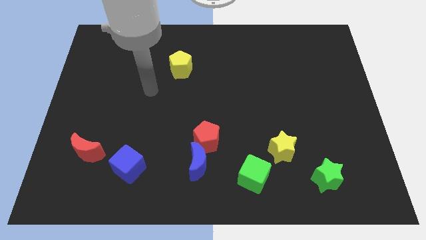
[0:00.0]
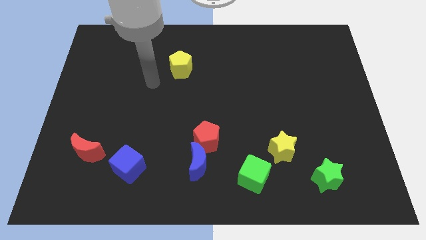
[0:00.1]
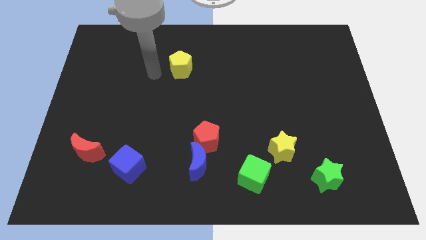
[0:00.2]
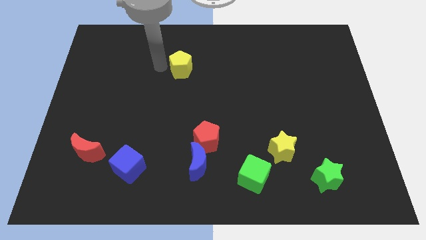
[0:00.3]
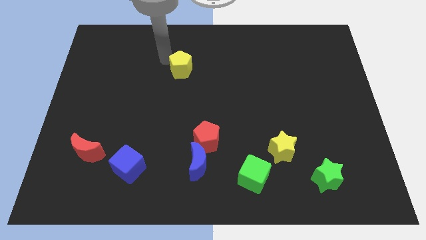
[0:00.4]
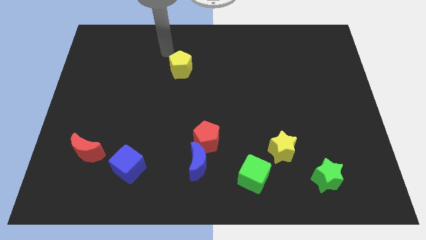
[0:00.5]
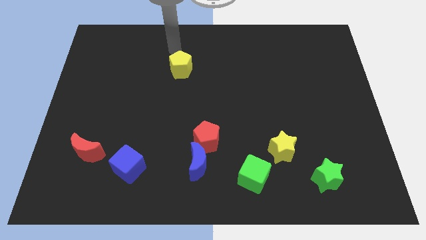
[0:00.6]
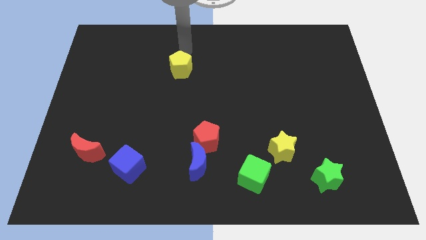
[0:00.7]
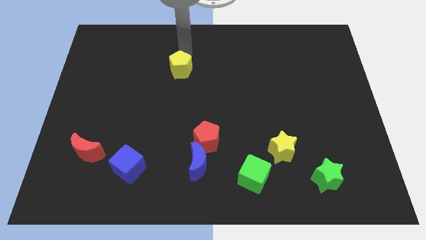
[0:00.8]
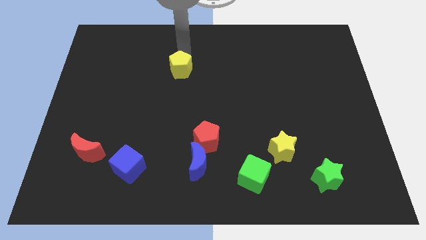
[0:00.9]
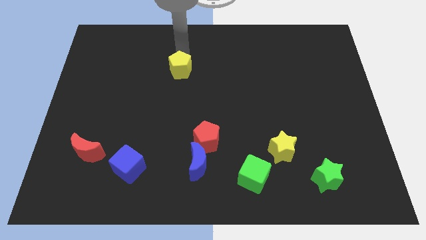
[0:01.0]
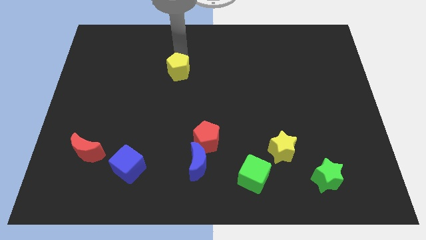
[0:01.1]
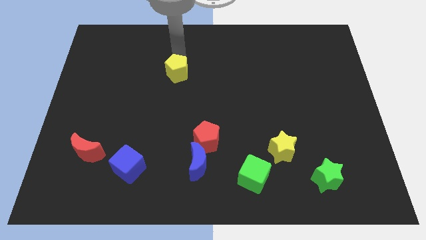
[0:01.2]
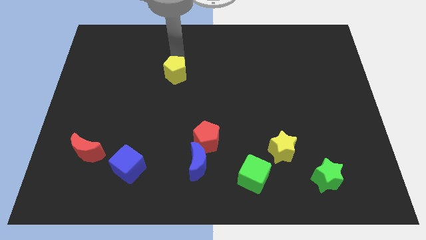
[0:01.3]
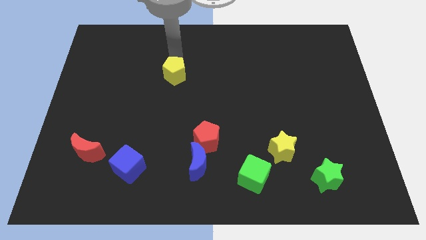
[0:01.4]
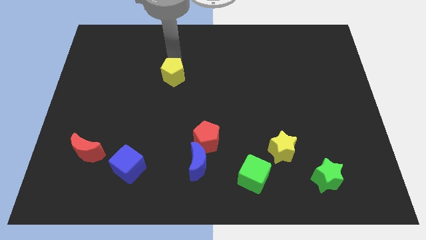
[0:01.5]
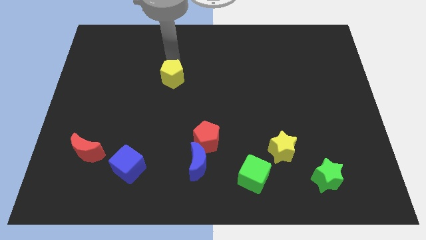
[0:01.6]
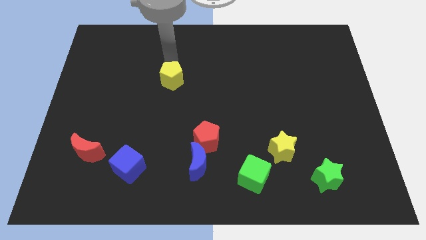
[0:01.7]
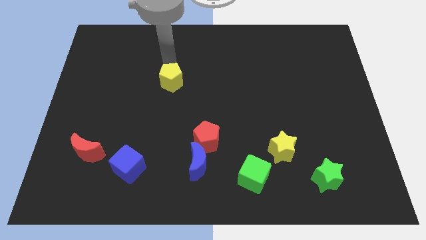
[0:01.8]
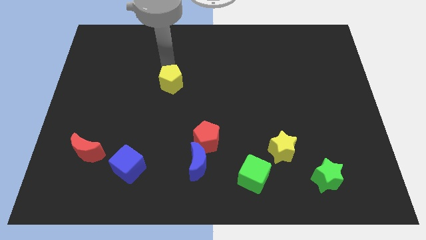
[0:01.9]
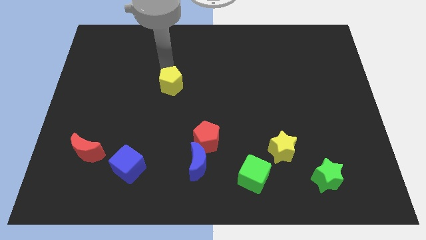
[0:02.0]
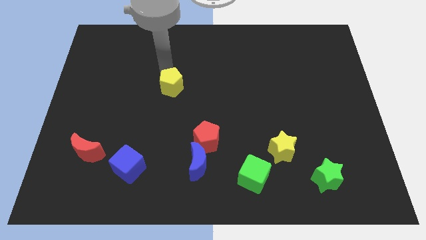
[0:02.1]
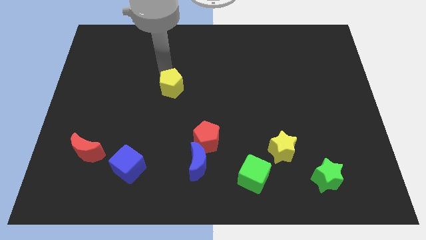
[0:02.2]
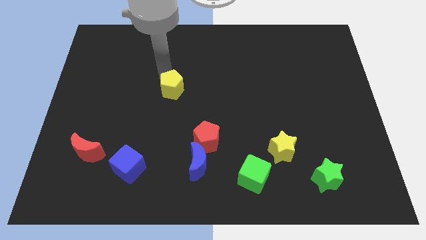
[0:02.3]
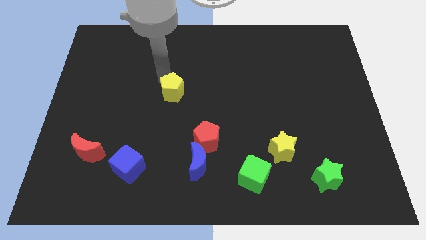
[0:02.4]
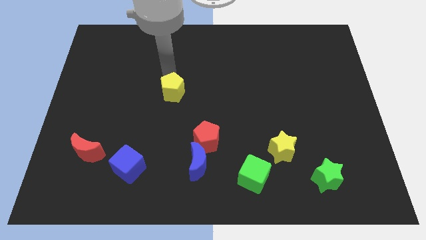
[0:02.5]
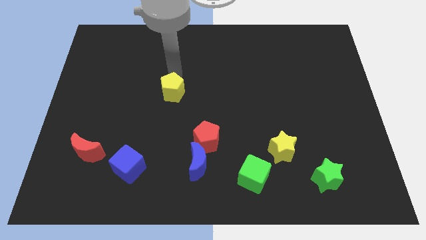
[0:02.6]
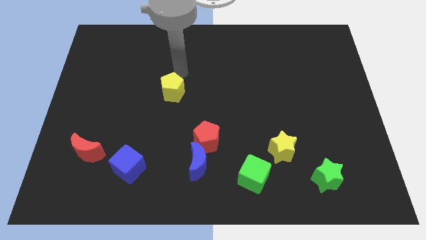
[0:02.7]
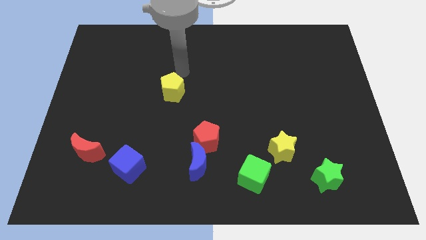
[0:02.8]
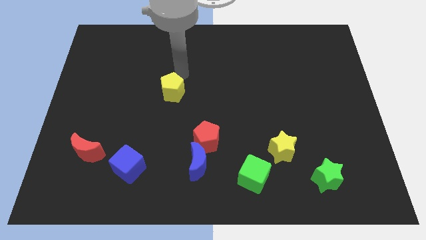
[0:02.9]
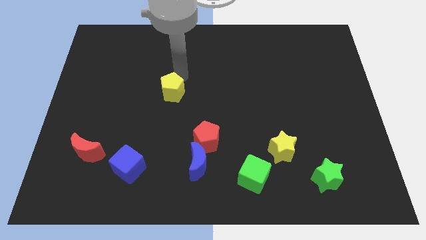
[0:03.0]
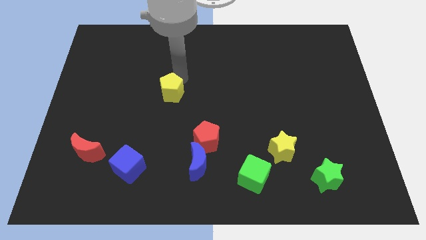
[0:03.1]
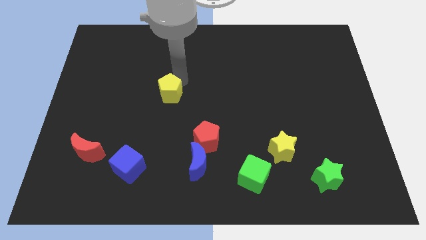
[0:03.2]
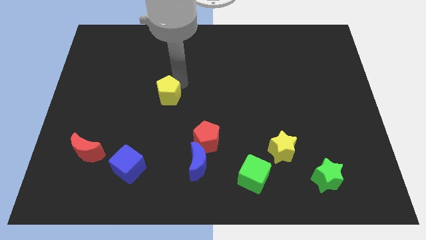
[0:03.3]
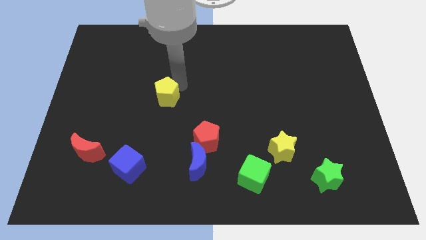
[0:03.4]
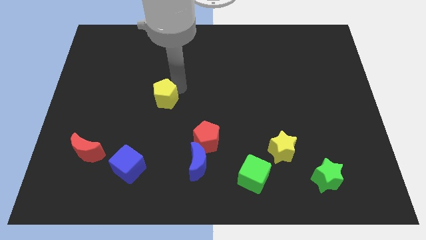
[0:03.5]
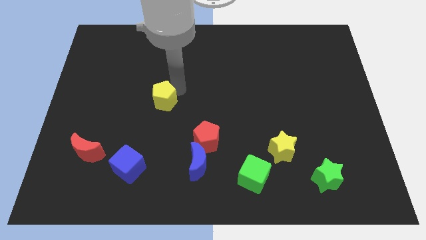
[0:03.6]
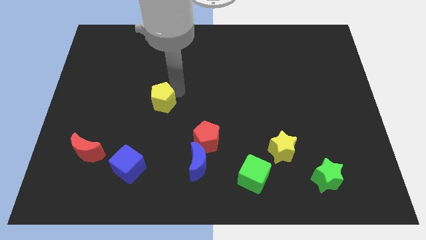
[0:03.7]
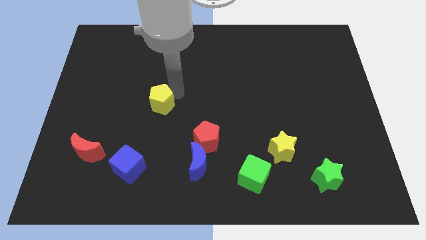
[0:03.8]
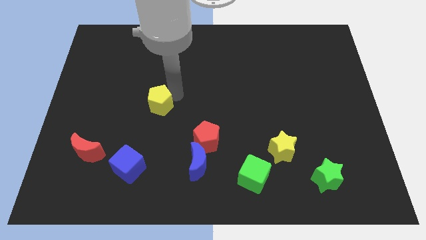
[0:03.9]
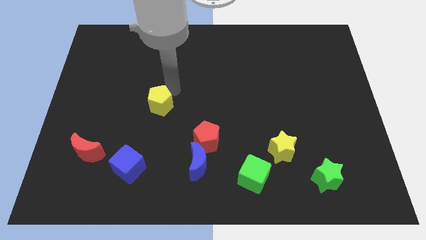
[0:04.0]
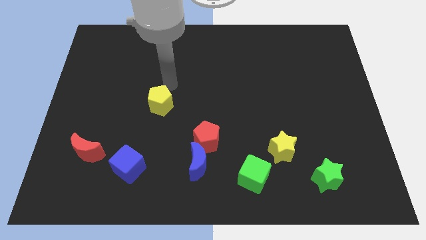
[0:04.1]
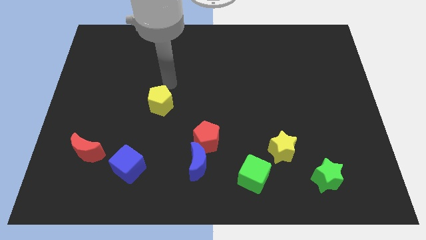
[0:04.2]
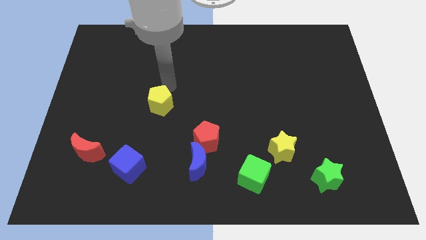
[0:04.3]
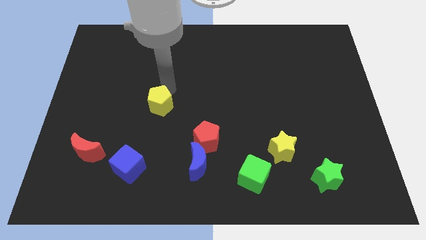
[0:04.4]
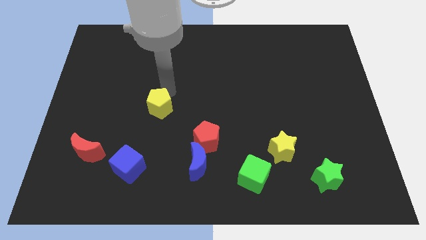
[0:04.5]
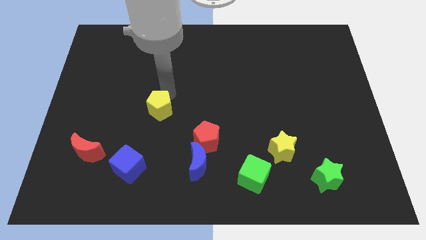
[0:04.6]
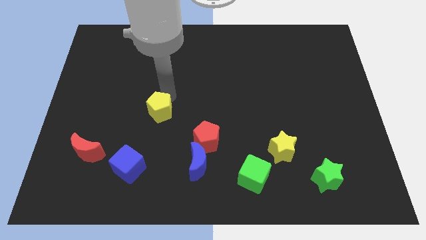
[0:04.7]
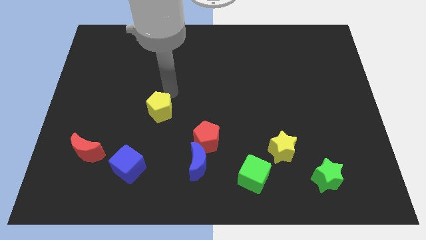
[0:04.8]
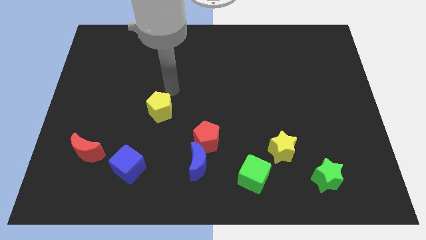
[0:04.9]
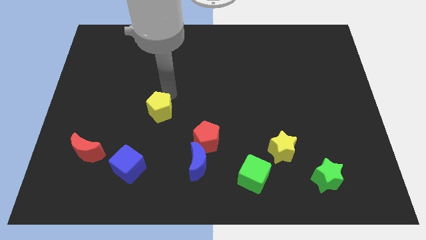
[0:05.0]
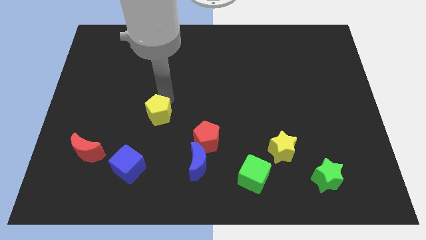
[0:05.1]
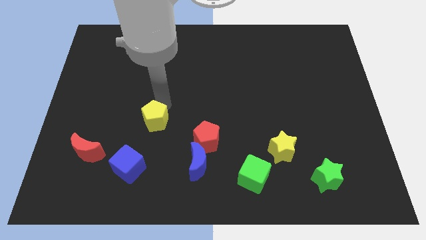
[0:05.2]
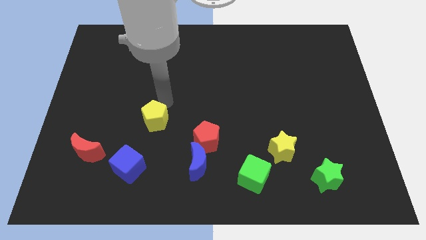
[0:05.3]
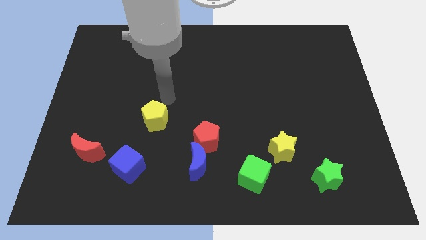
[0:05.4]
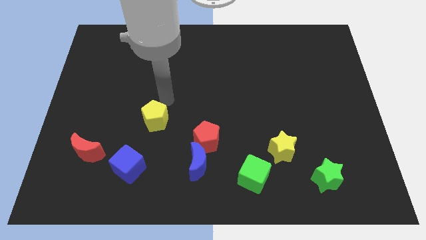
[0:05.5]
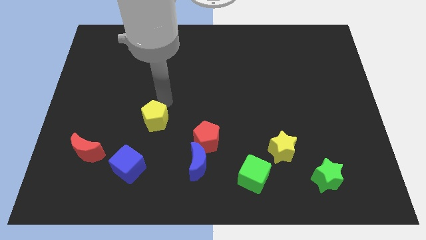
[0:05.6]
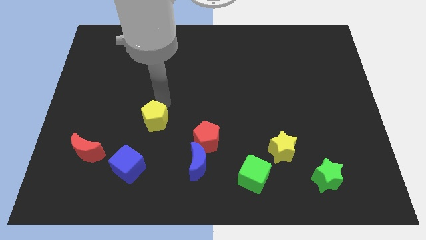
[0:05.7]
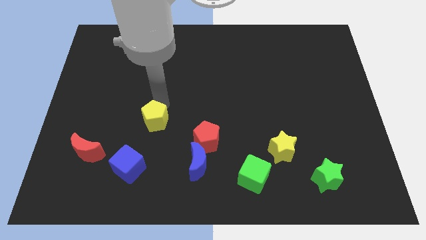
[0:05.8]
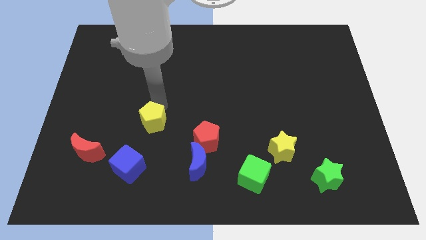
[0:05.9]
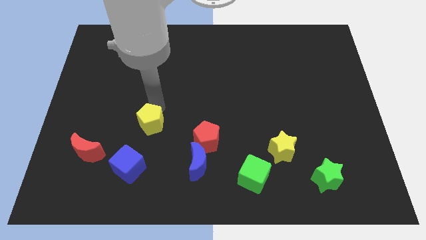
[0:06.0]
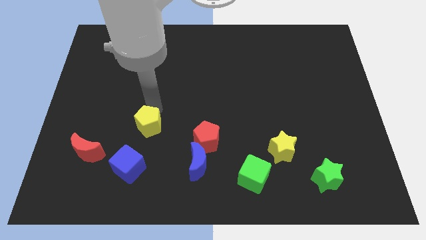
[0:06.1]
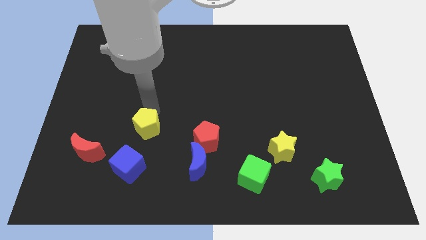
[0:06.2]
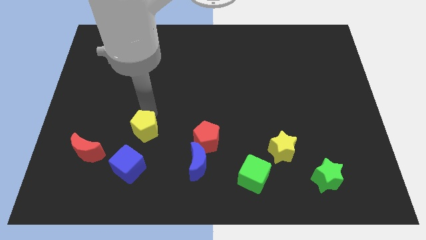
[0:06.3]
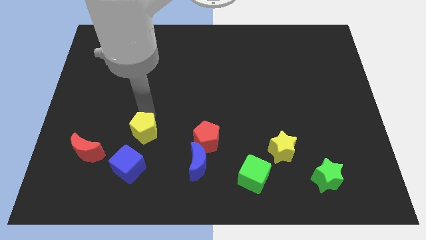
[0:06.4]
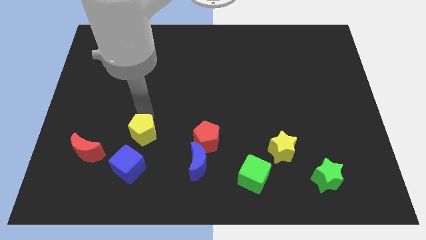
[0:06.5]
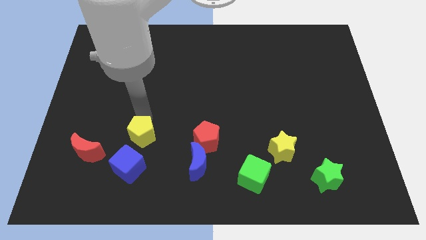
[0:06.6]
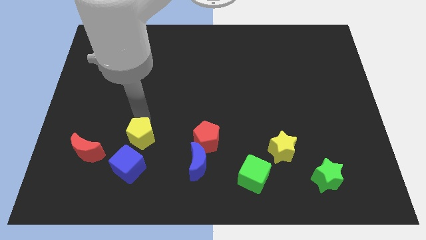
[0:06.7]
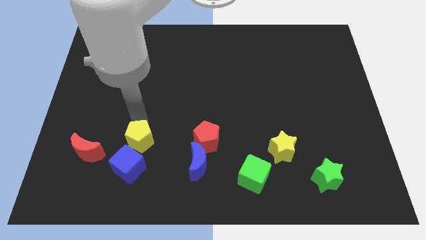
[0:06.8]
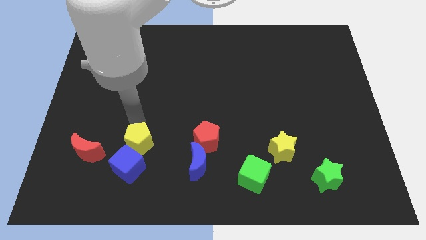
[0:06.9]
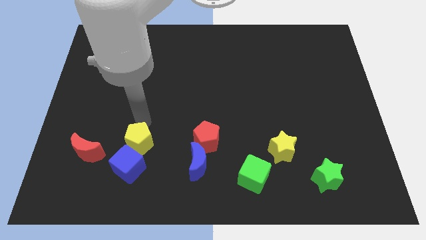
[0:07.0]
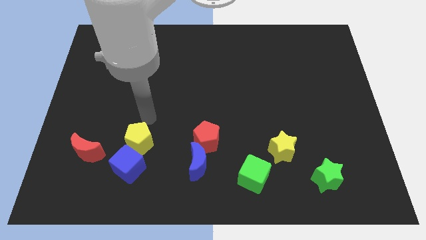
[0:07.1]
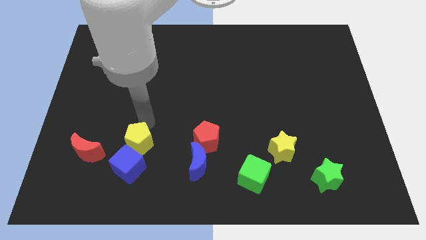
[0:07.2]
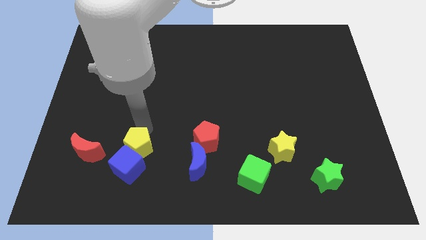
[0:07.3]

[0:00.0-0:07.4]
push the yellow pentagon to the blue cube

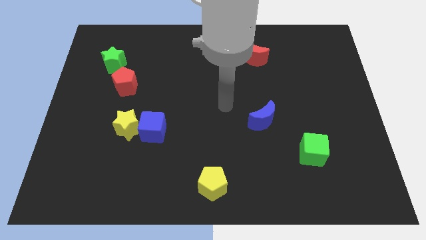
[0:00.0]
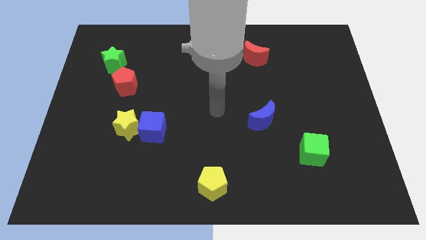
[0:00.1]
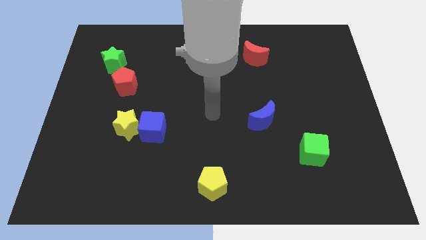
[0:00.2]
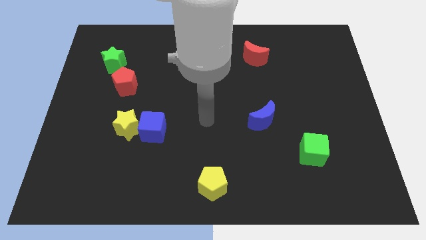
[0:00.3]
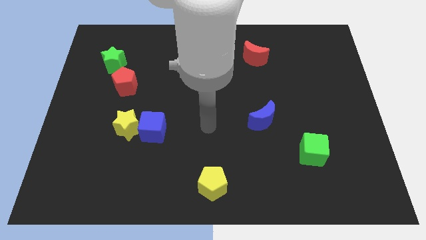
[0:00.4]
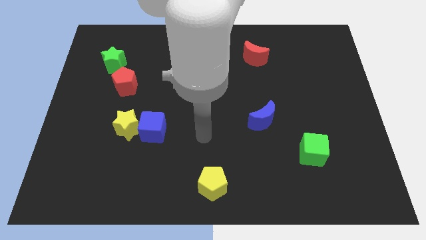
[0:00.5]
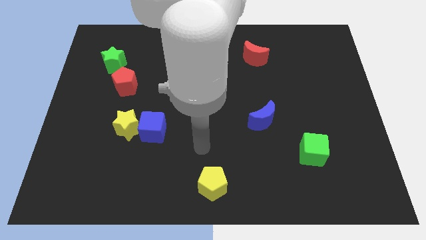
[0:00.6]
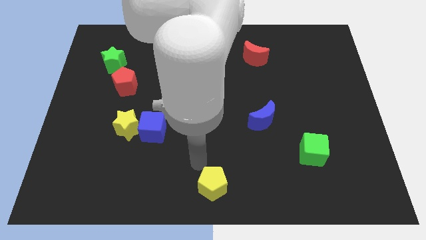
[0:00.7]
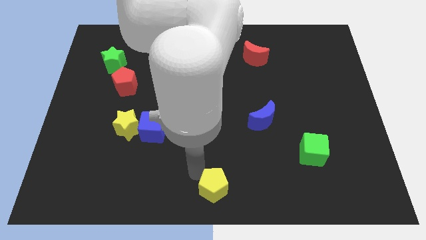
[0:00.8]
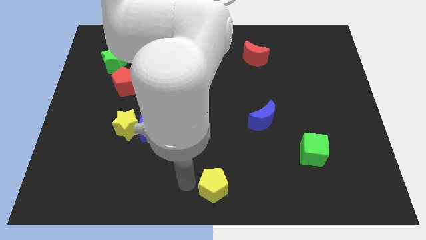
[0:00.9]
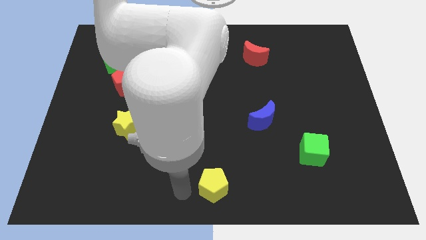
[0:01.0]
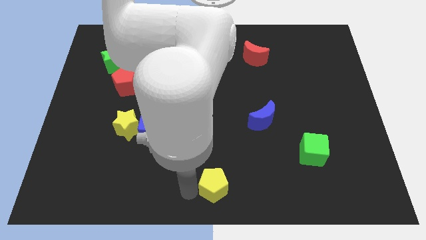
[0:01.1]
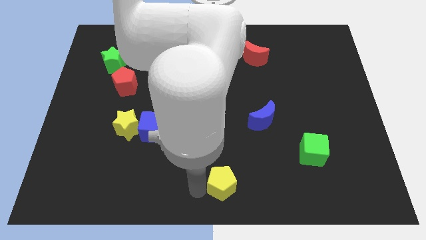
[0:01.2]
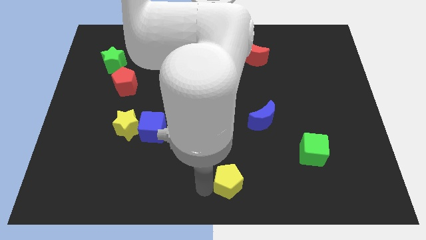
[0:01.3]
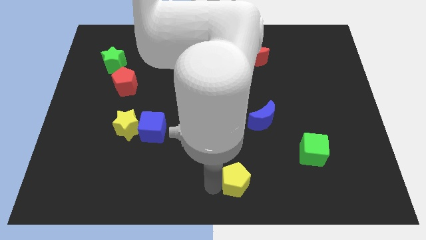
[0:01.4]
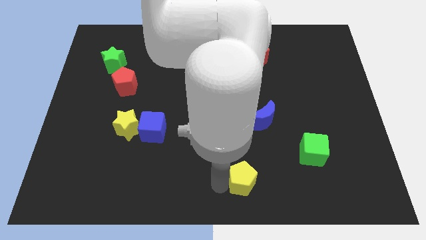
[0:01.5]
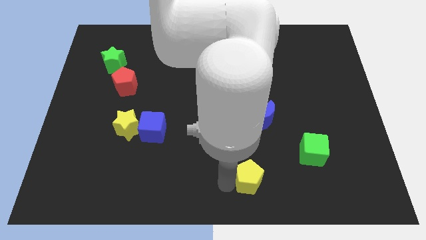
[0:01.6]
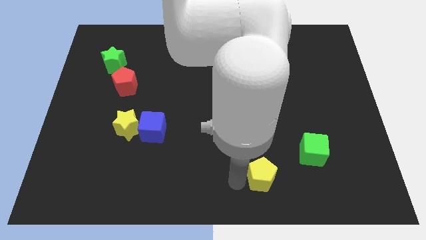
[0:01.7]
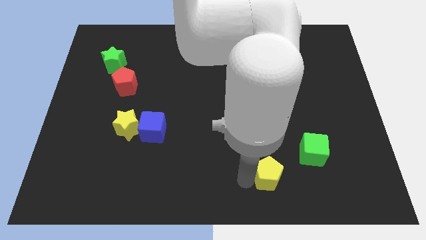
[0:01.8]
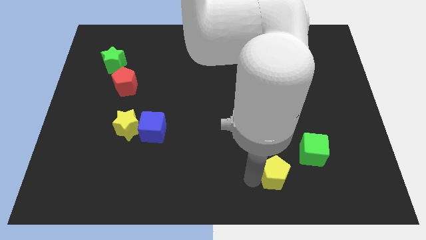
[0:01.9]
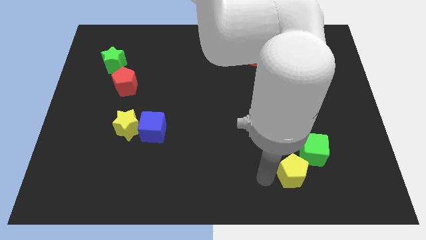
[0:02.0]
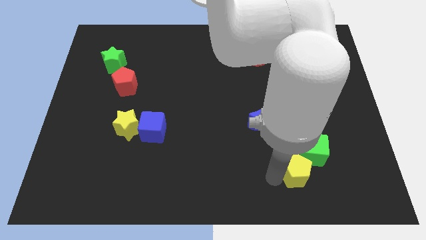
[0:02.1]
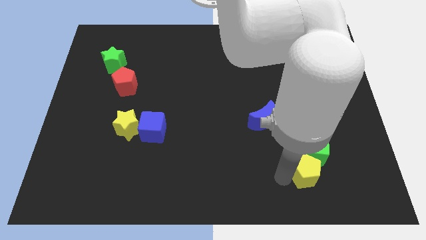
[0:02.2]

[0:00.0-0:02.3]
slide the yellow pentagon close to the green cube
